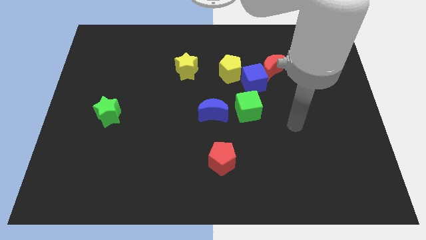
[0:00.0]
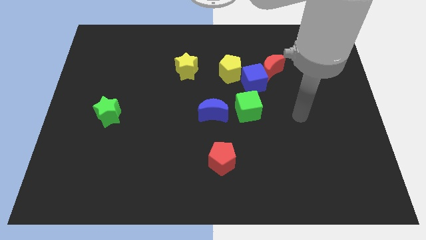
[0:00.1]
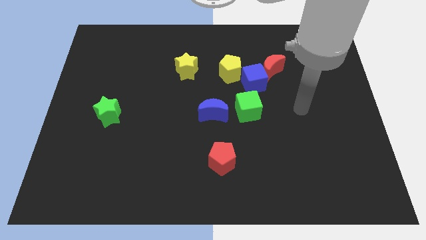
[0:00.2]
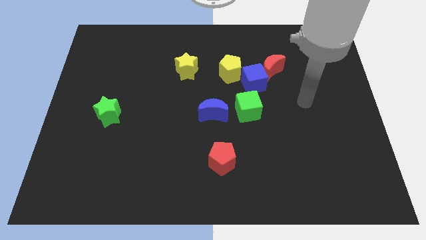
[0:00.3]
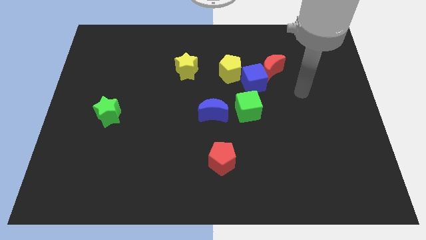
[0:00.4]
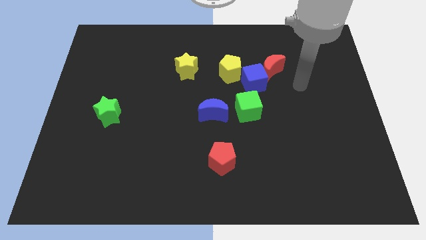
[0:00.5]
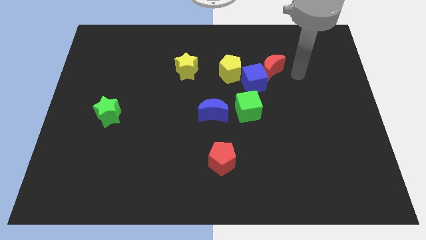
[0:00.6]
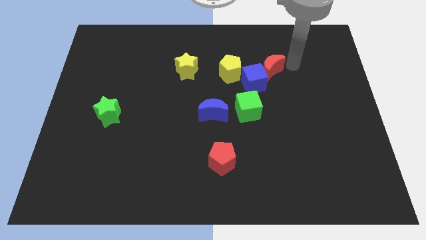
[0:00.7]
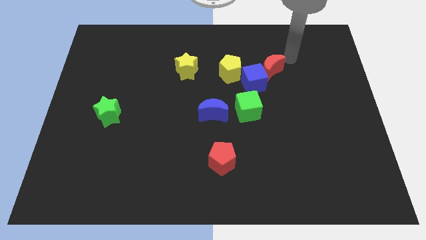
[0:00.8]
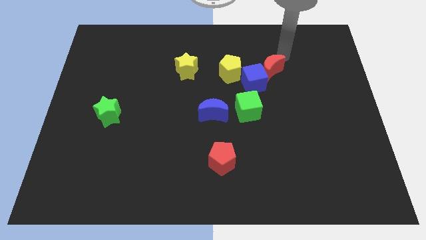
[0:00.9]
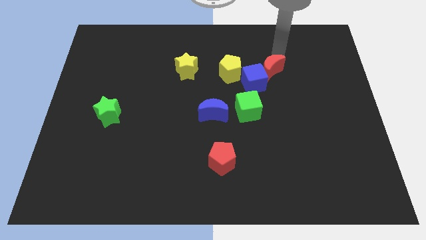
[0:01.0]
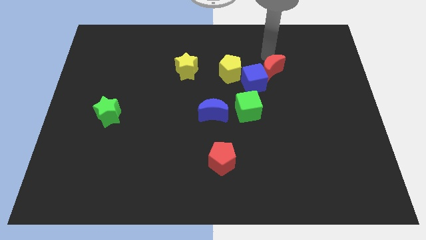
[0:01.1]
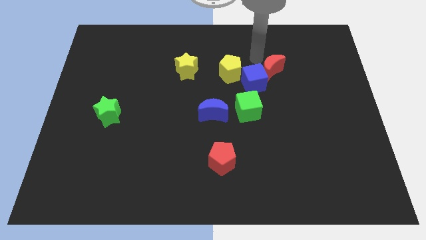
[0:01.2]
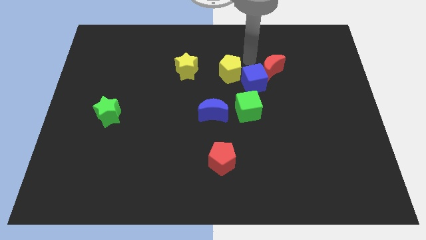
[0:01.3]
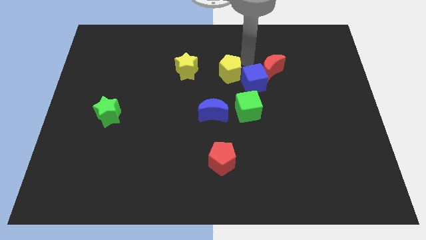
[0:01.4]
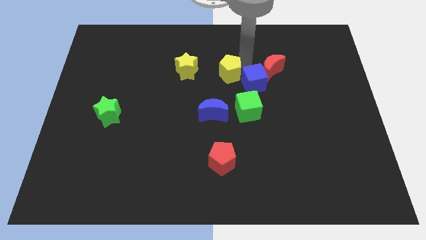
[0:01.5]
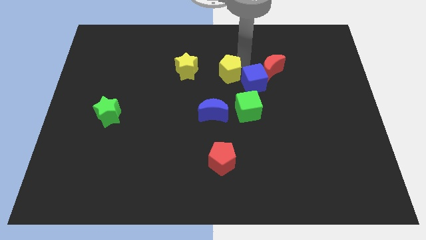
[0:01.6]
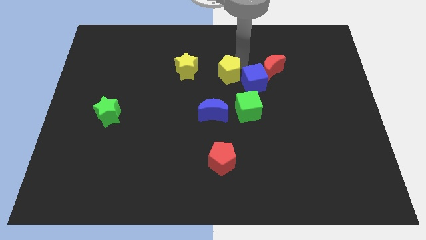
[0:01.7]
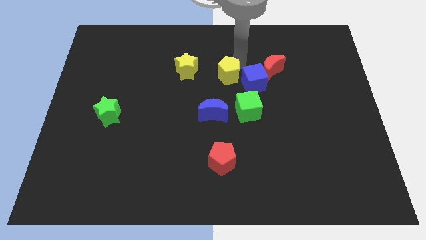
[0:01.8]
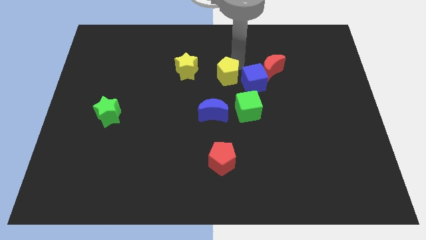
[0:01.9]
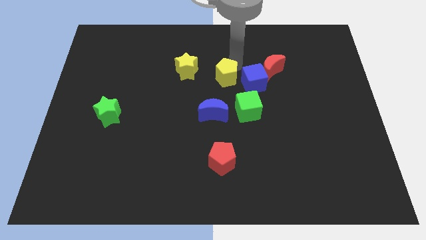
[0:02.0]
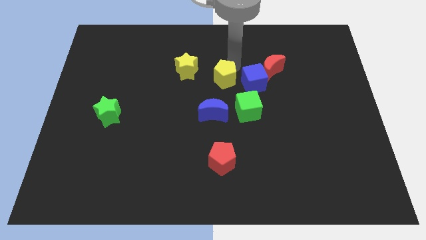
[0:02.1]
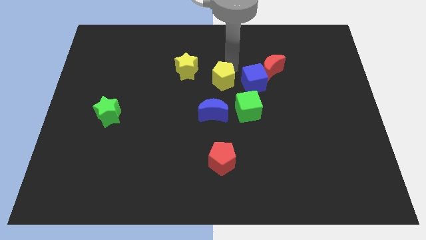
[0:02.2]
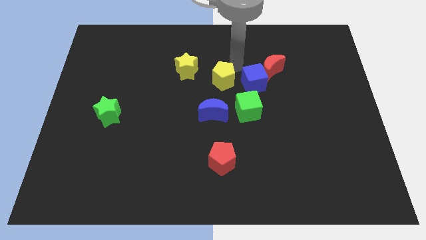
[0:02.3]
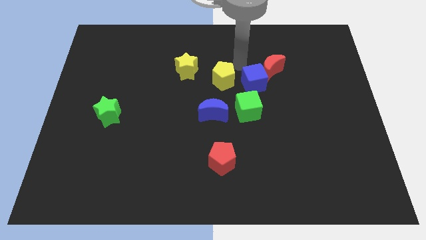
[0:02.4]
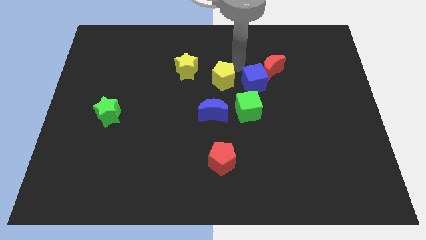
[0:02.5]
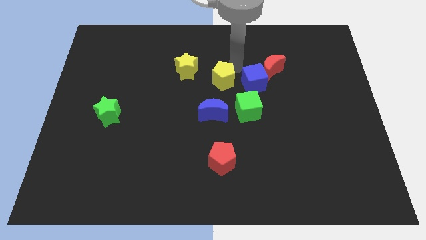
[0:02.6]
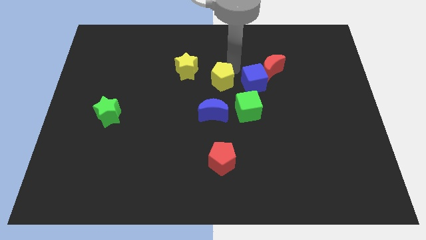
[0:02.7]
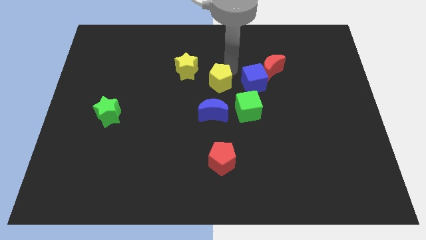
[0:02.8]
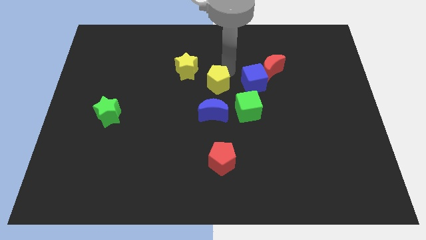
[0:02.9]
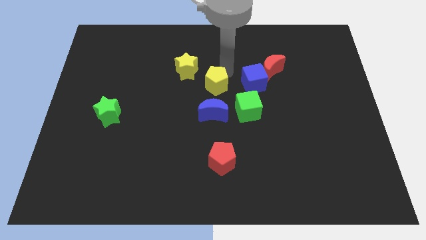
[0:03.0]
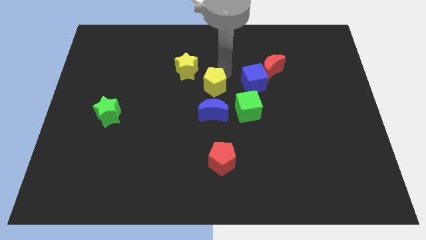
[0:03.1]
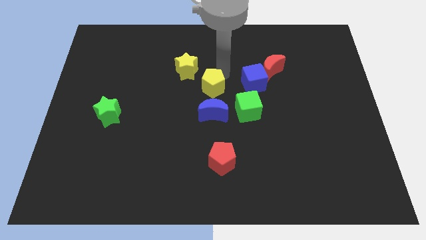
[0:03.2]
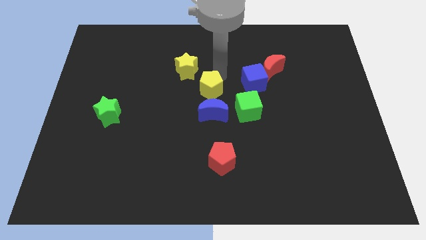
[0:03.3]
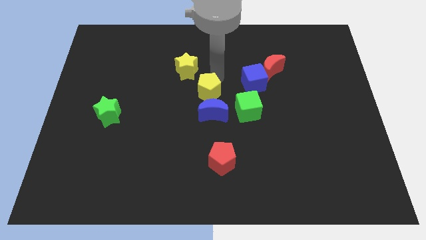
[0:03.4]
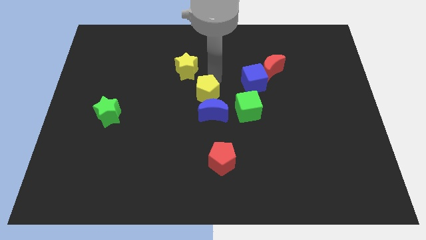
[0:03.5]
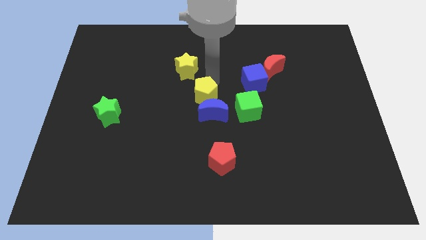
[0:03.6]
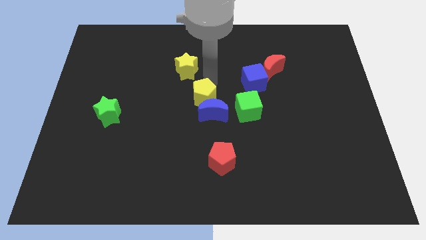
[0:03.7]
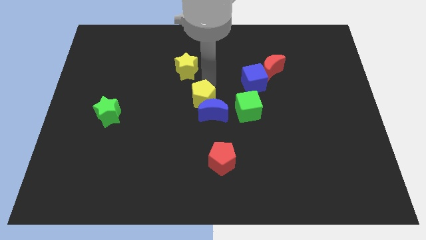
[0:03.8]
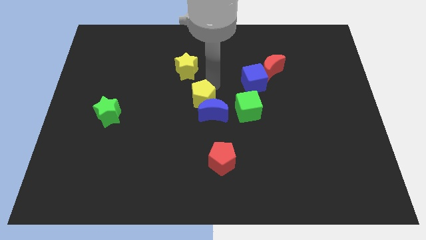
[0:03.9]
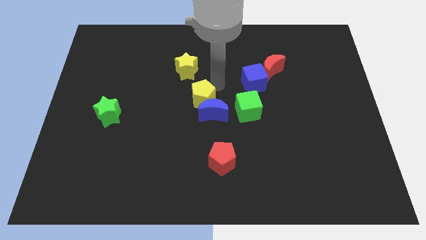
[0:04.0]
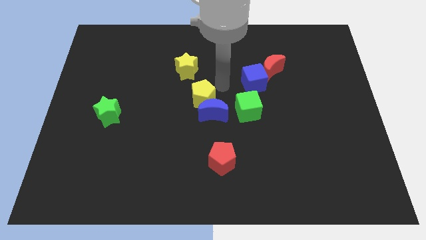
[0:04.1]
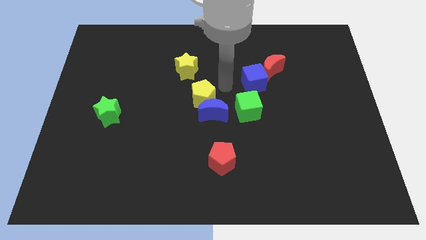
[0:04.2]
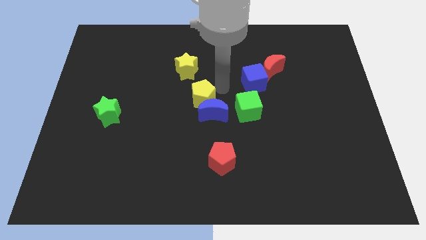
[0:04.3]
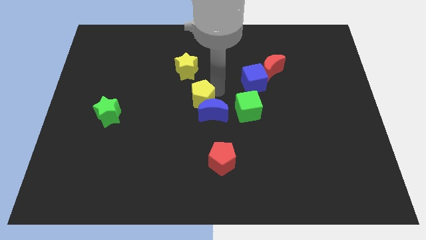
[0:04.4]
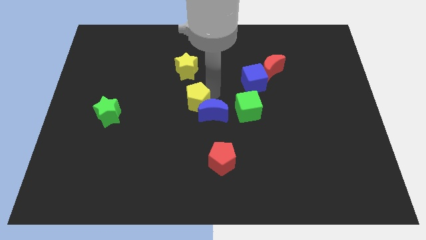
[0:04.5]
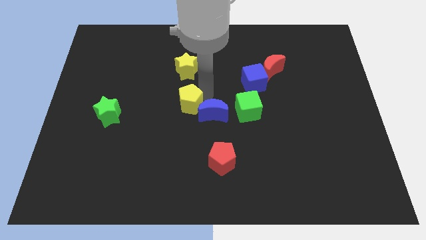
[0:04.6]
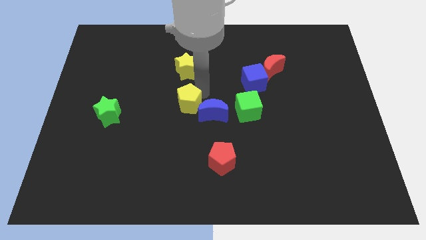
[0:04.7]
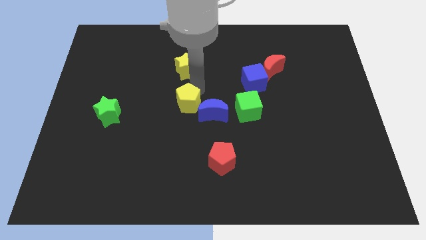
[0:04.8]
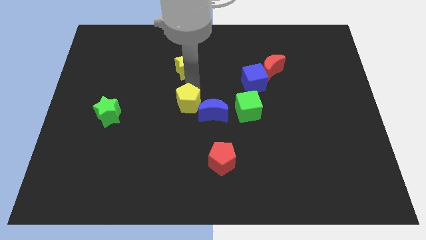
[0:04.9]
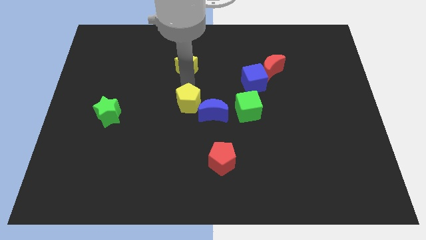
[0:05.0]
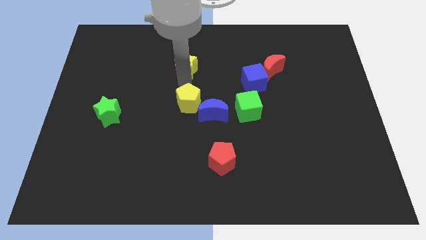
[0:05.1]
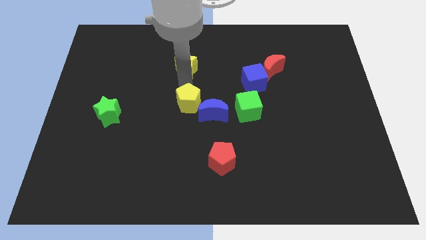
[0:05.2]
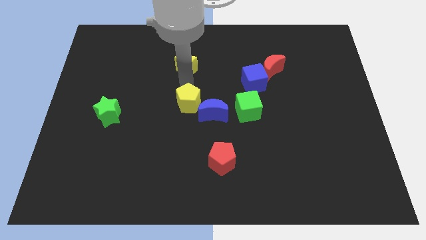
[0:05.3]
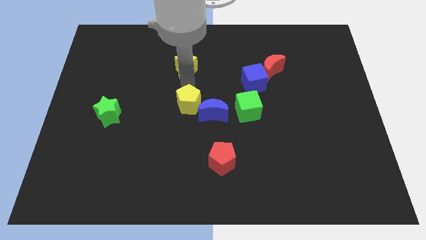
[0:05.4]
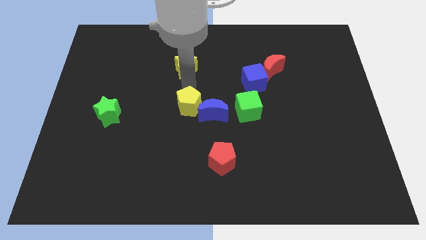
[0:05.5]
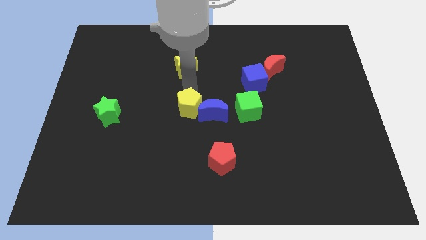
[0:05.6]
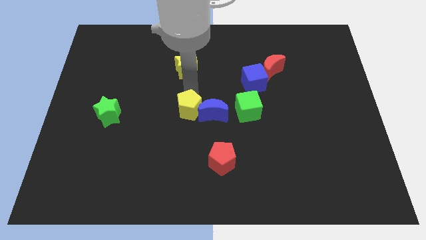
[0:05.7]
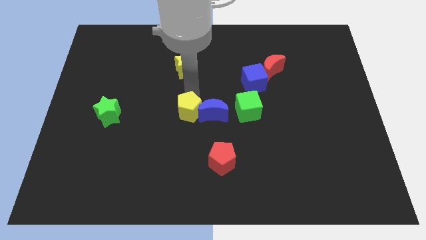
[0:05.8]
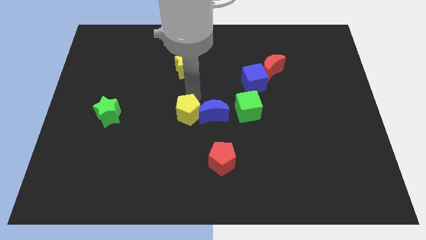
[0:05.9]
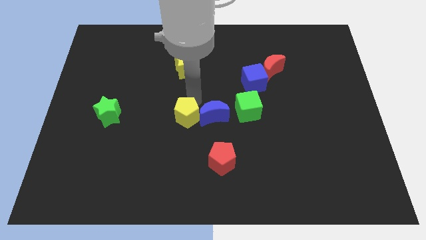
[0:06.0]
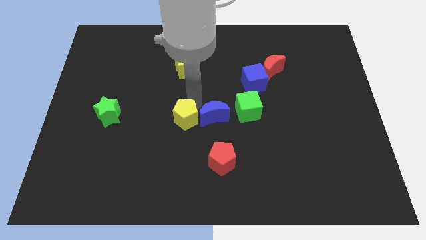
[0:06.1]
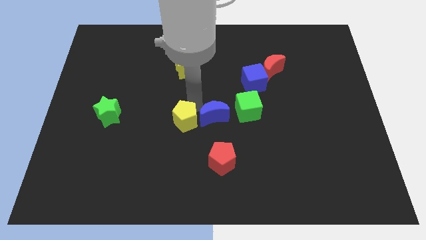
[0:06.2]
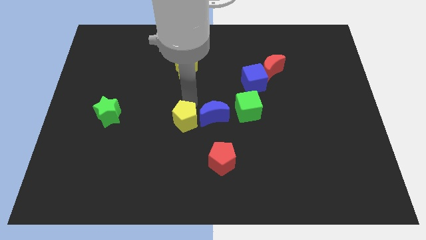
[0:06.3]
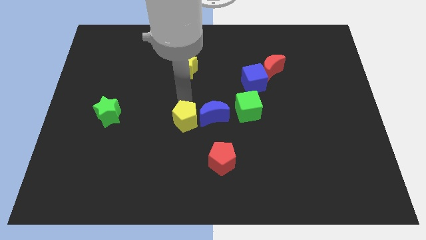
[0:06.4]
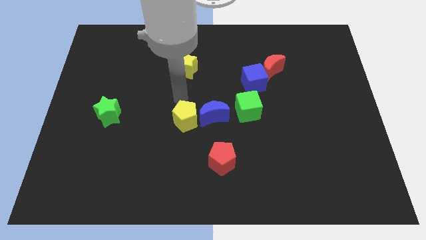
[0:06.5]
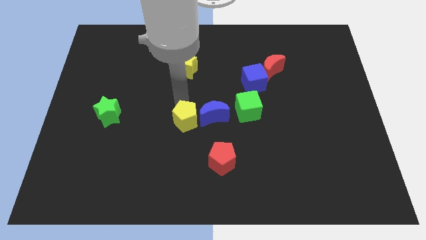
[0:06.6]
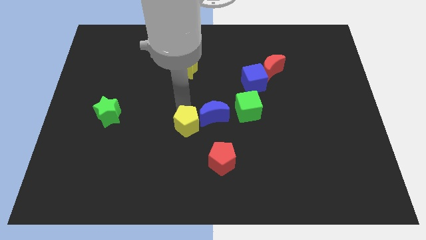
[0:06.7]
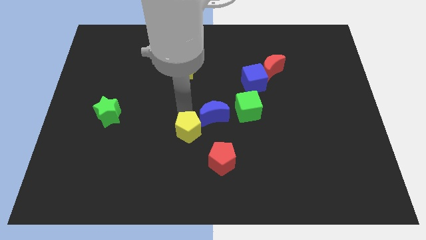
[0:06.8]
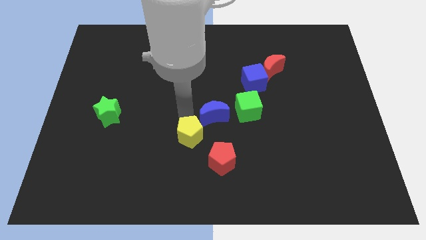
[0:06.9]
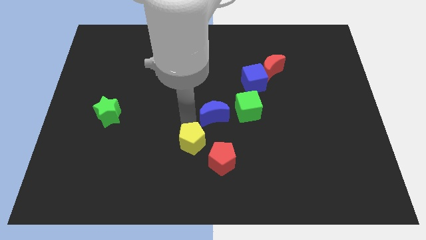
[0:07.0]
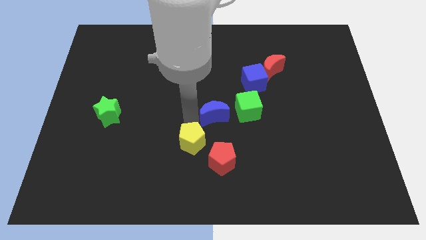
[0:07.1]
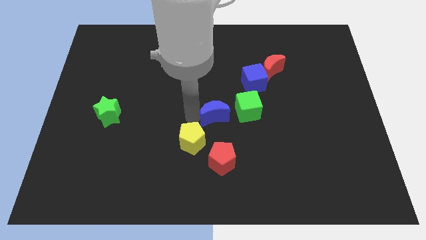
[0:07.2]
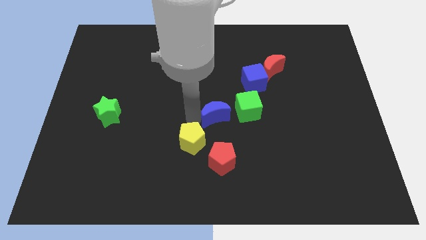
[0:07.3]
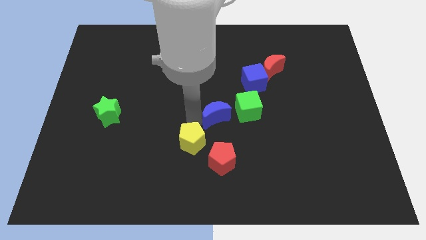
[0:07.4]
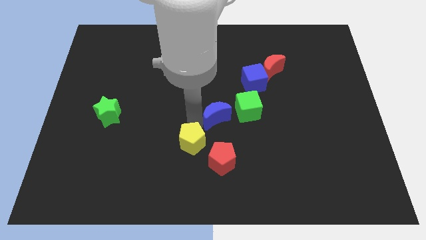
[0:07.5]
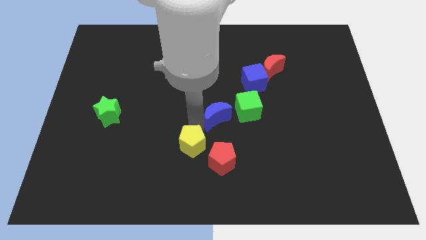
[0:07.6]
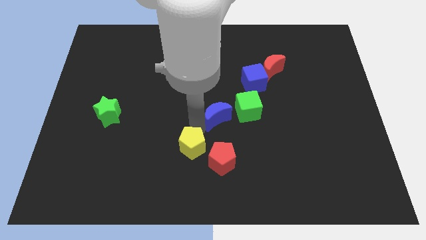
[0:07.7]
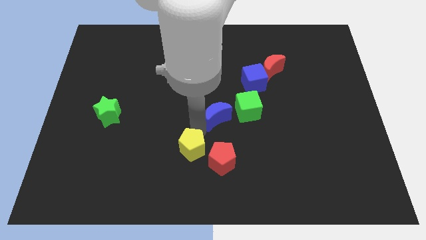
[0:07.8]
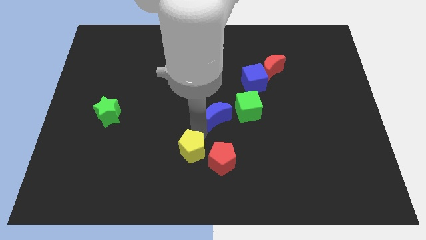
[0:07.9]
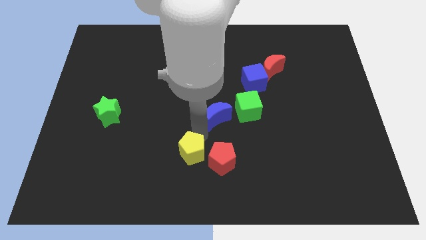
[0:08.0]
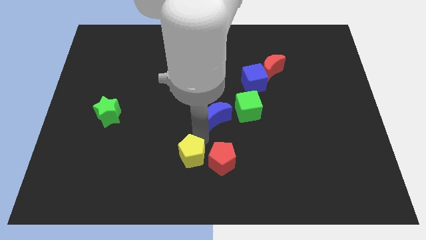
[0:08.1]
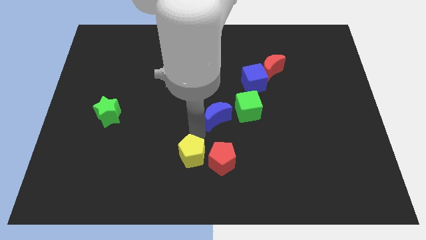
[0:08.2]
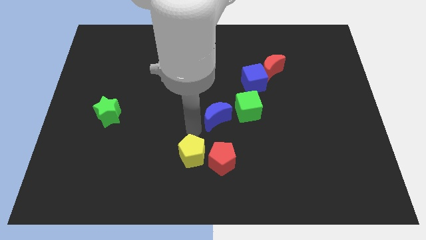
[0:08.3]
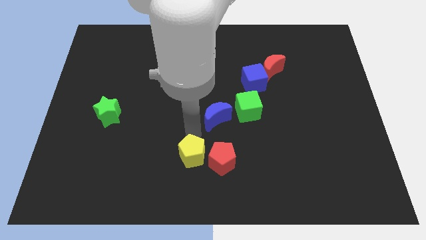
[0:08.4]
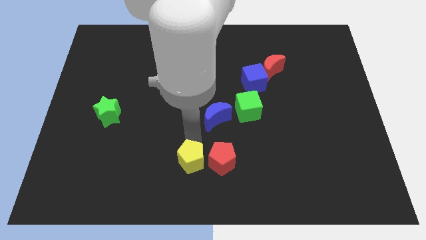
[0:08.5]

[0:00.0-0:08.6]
move the yellow pentagon to the bottom side
